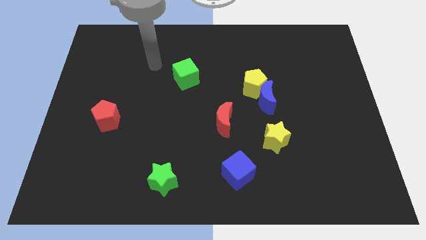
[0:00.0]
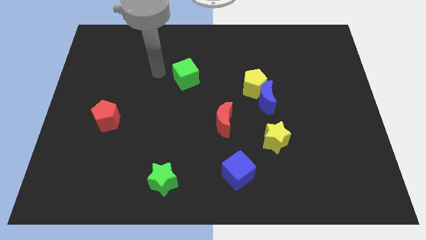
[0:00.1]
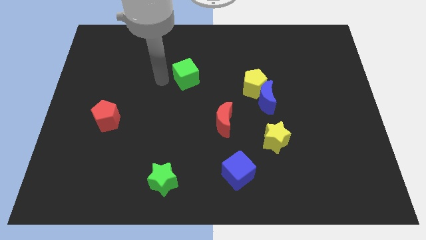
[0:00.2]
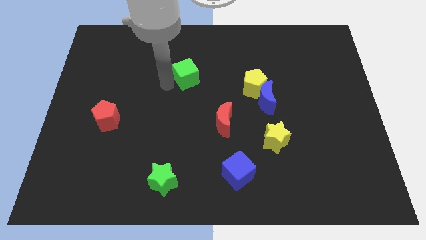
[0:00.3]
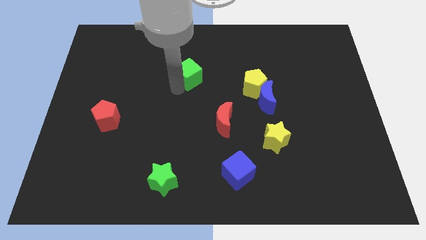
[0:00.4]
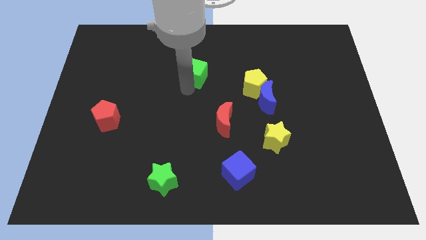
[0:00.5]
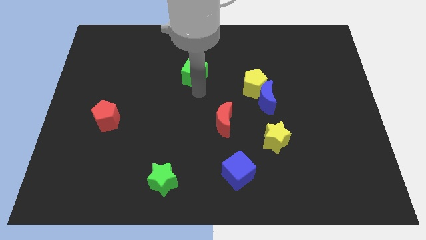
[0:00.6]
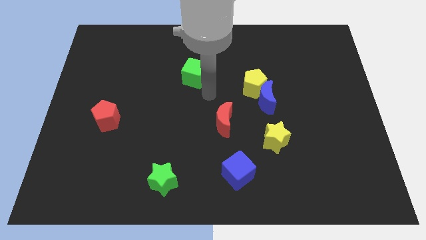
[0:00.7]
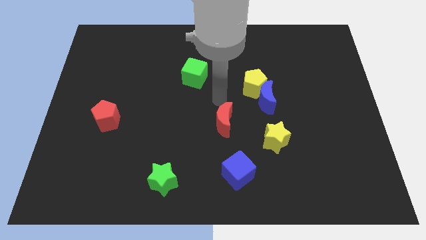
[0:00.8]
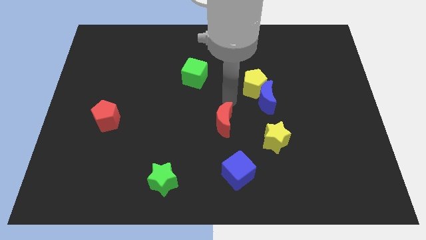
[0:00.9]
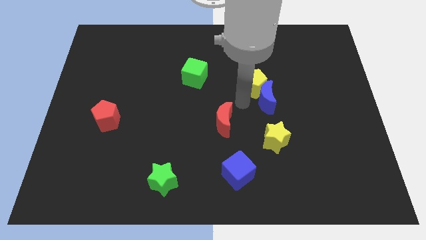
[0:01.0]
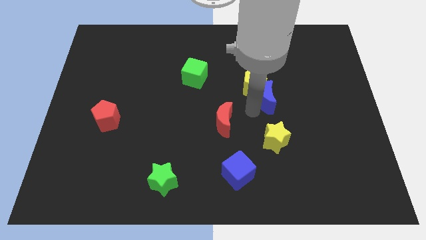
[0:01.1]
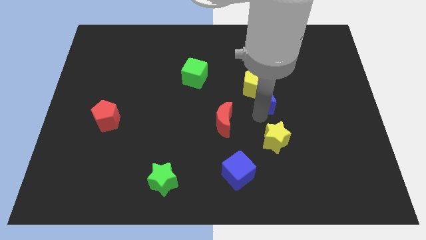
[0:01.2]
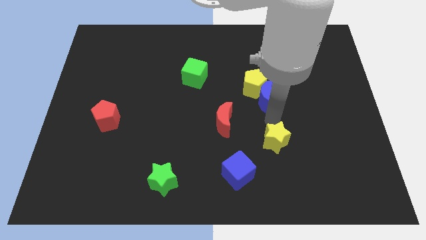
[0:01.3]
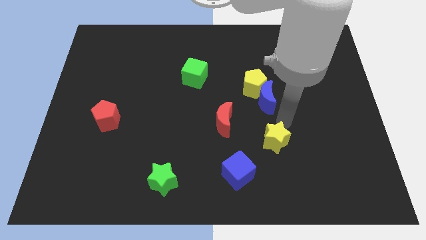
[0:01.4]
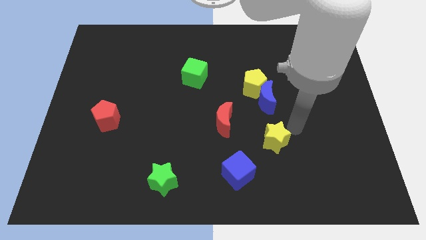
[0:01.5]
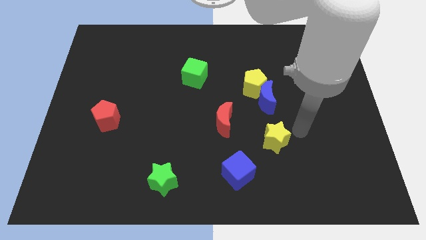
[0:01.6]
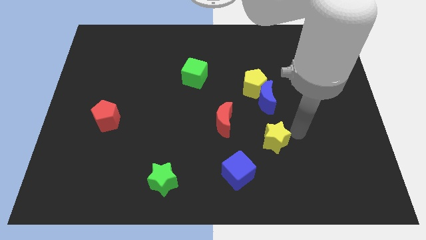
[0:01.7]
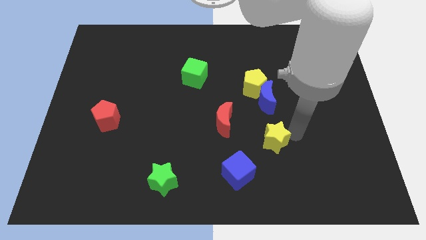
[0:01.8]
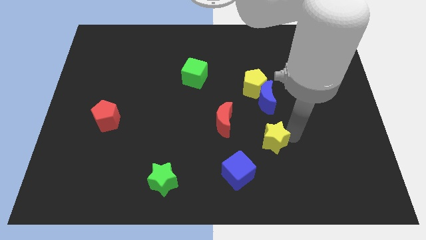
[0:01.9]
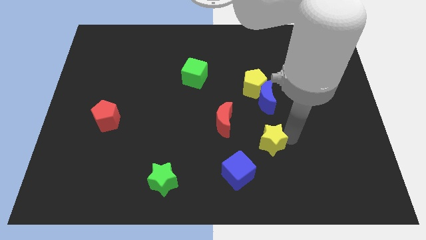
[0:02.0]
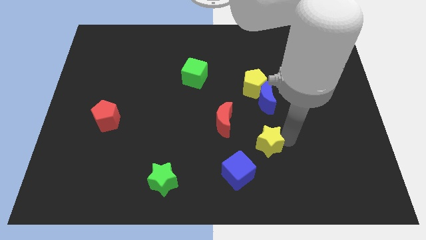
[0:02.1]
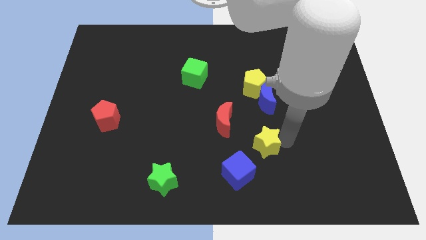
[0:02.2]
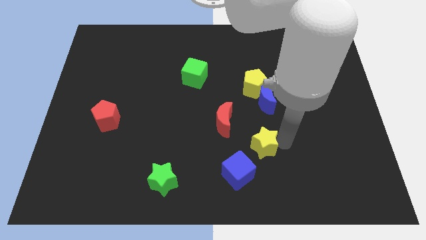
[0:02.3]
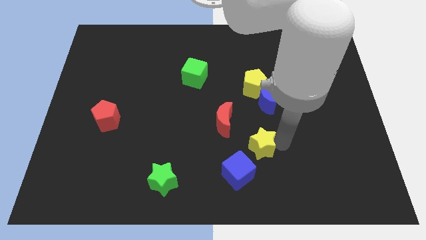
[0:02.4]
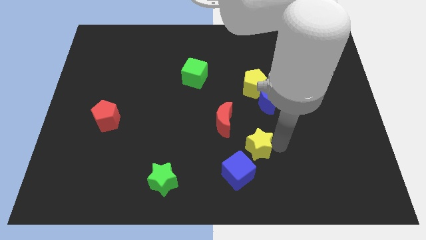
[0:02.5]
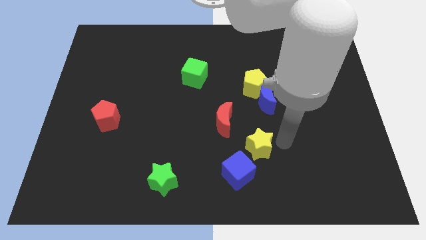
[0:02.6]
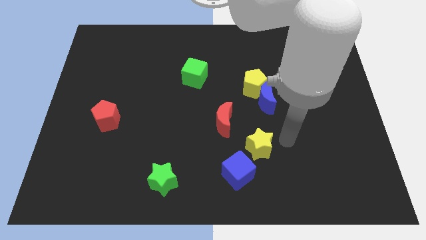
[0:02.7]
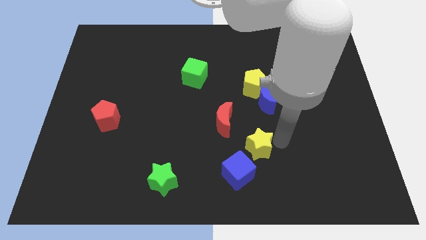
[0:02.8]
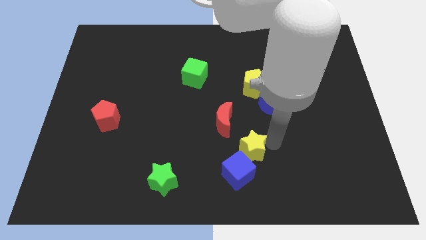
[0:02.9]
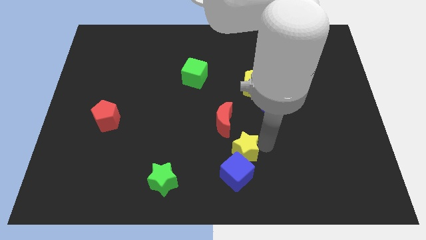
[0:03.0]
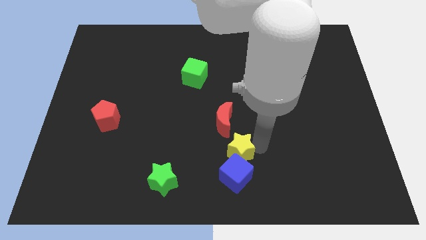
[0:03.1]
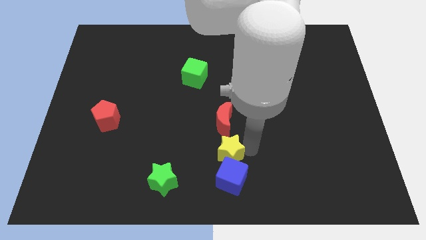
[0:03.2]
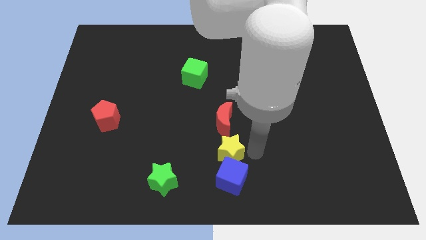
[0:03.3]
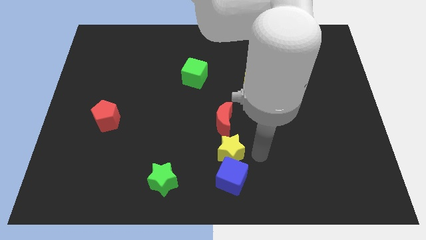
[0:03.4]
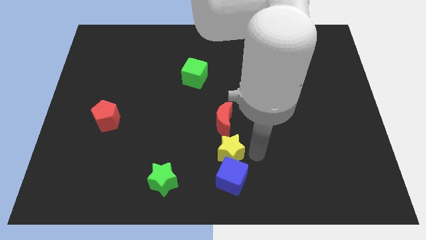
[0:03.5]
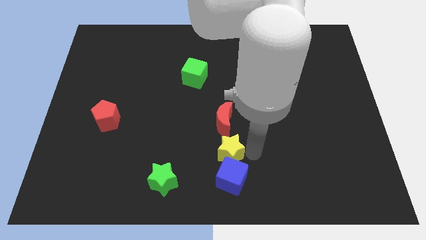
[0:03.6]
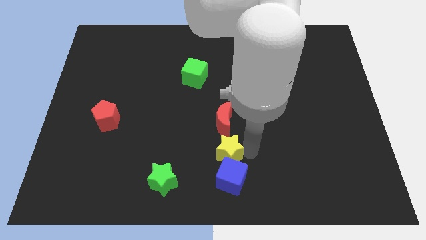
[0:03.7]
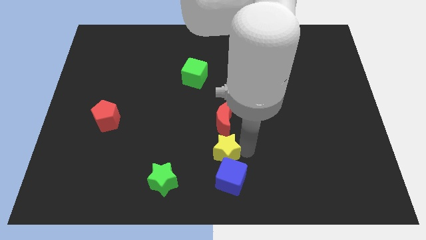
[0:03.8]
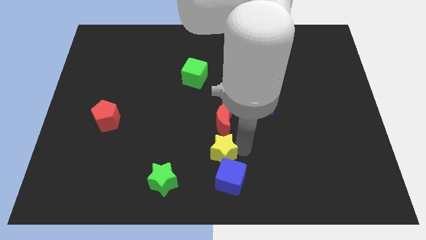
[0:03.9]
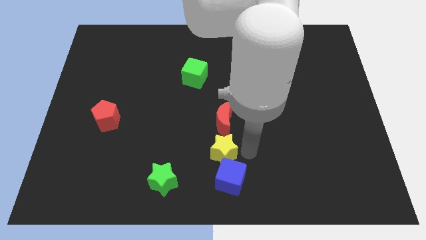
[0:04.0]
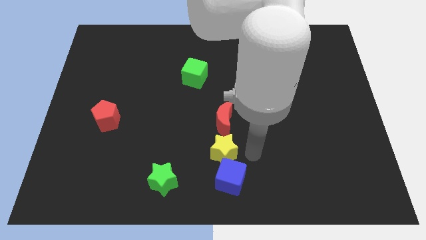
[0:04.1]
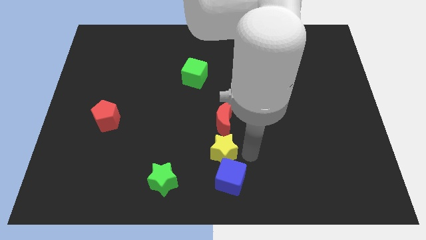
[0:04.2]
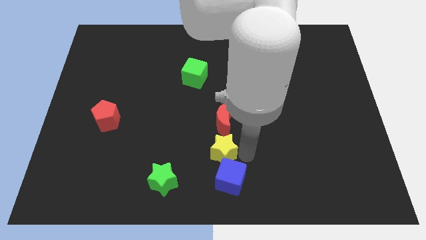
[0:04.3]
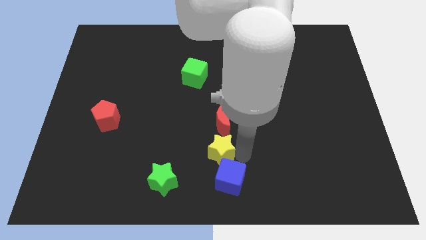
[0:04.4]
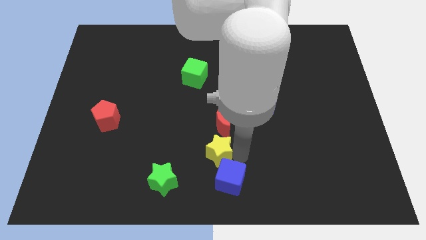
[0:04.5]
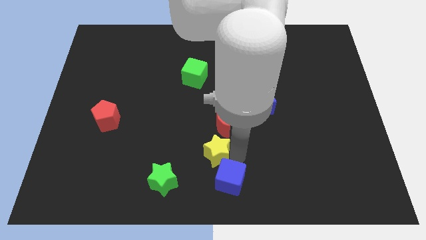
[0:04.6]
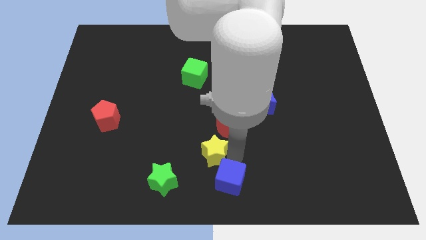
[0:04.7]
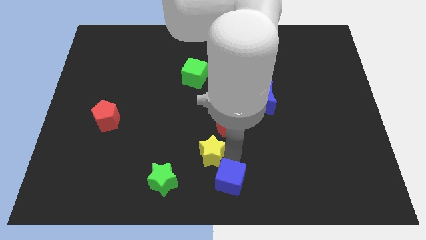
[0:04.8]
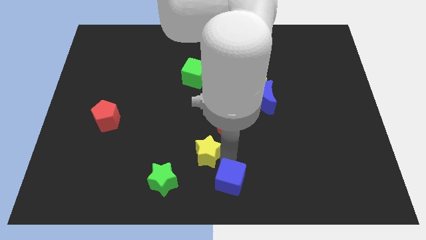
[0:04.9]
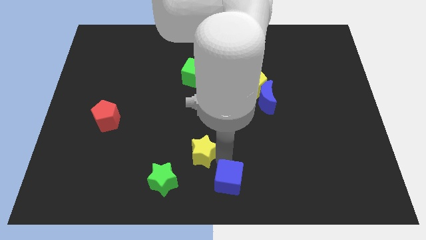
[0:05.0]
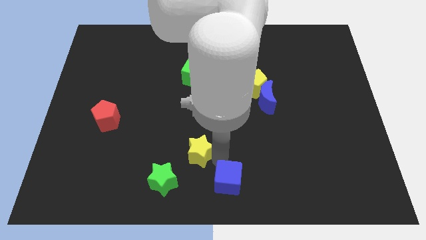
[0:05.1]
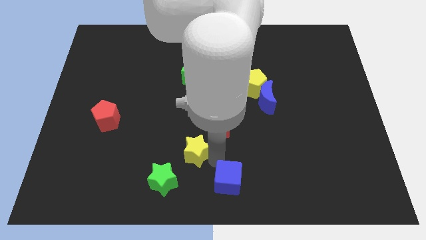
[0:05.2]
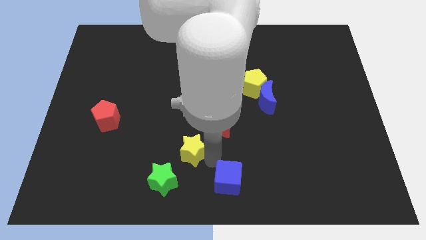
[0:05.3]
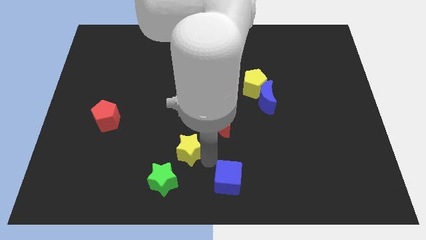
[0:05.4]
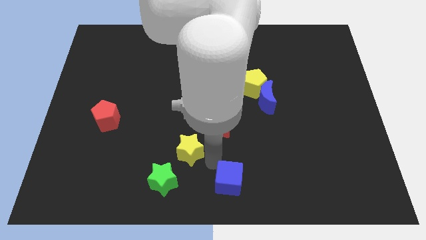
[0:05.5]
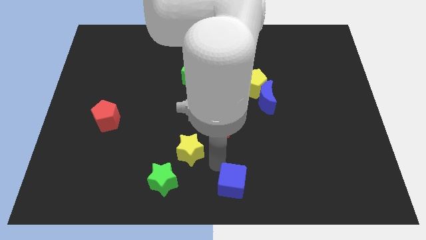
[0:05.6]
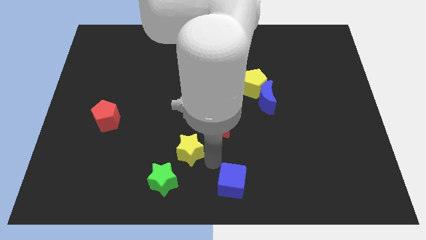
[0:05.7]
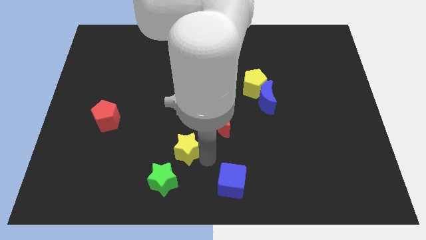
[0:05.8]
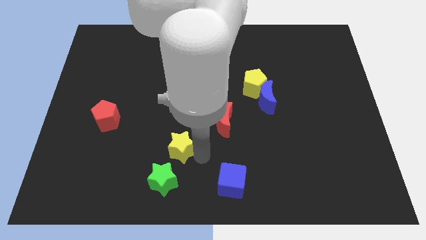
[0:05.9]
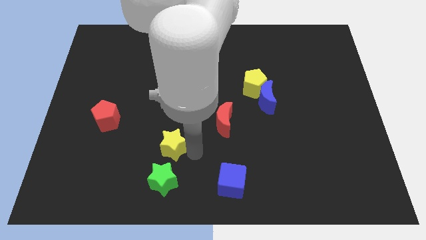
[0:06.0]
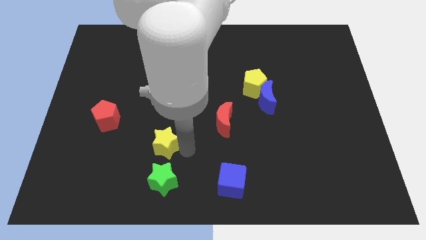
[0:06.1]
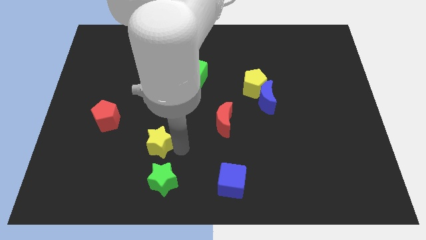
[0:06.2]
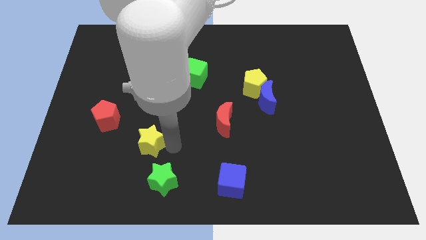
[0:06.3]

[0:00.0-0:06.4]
put the yellow star diagonally down and to the right of the red pentagon

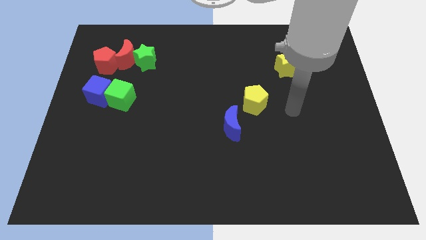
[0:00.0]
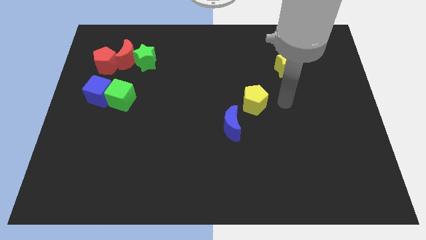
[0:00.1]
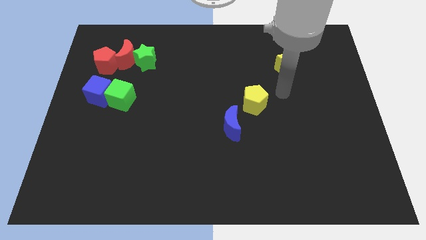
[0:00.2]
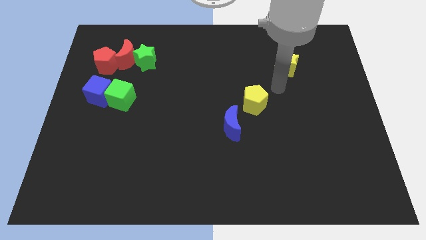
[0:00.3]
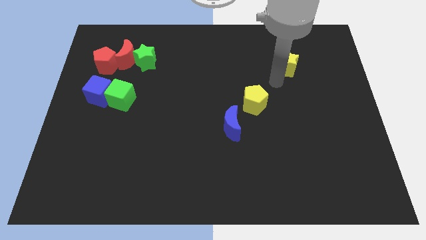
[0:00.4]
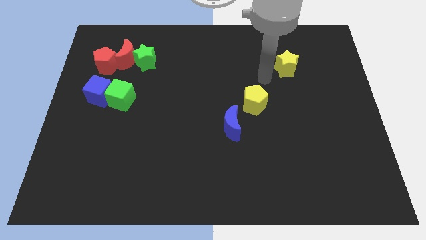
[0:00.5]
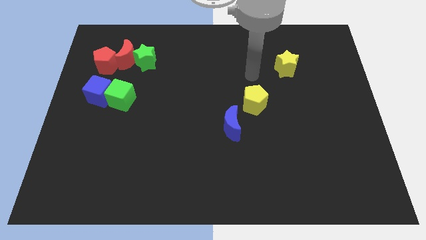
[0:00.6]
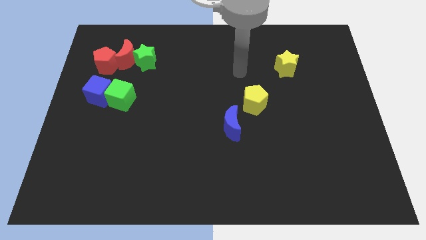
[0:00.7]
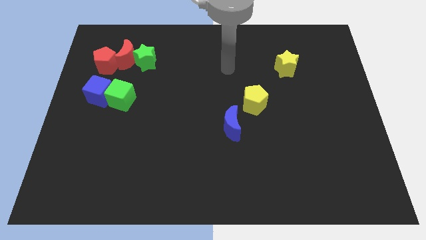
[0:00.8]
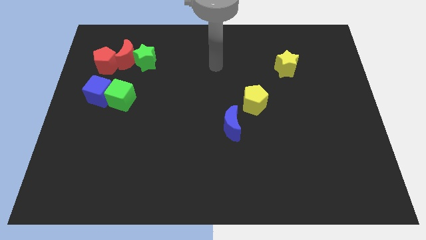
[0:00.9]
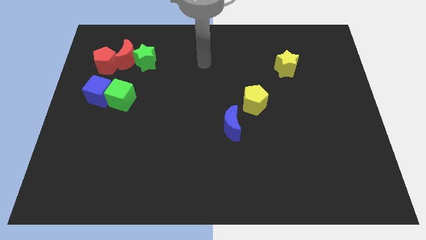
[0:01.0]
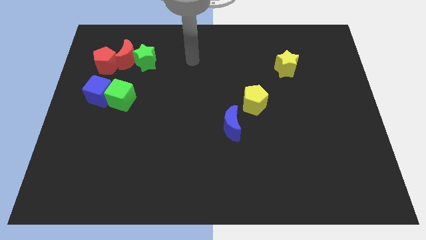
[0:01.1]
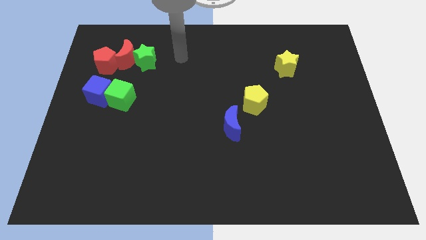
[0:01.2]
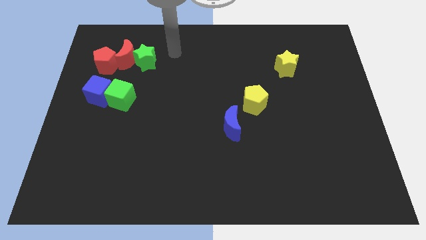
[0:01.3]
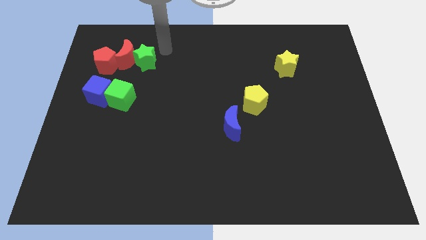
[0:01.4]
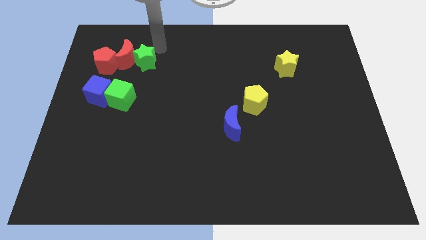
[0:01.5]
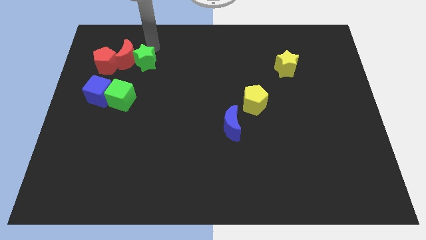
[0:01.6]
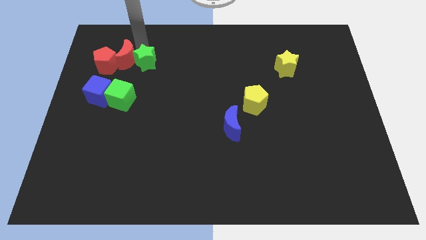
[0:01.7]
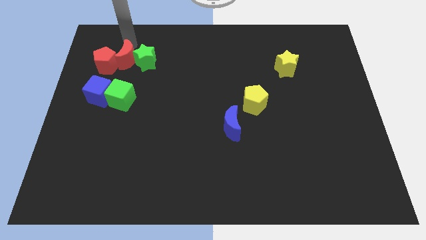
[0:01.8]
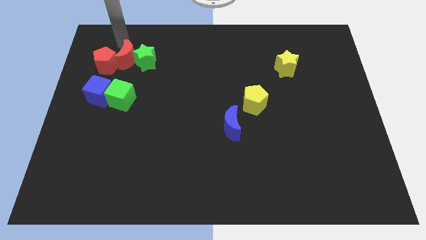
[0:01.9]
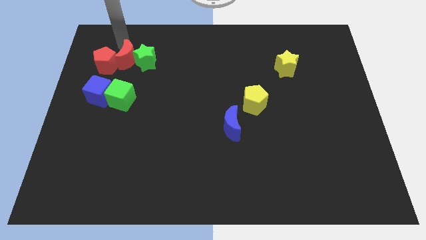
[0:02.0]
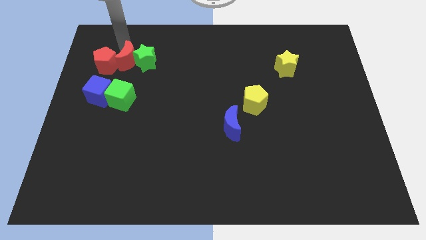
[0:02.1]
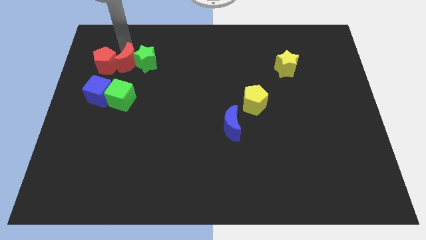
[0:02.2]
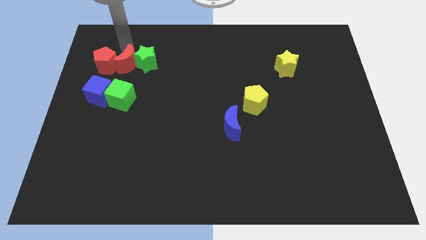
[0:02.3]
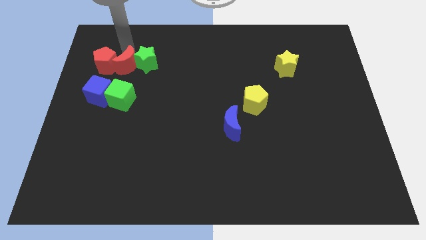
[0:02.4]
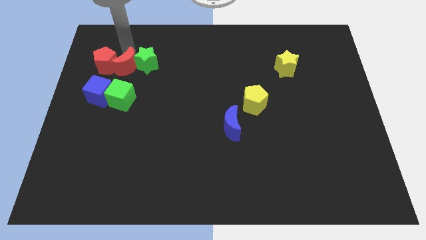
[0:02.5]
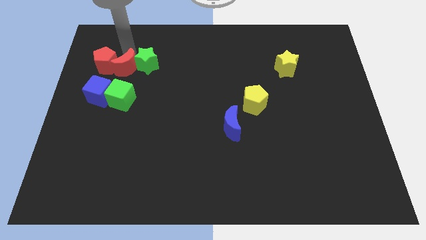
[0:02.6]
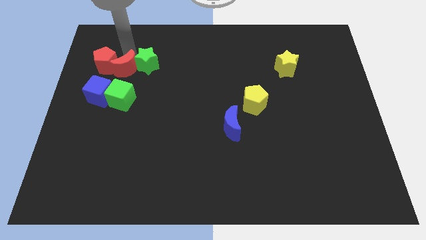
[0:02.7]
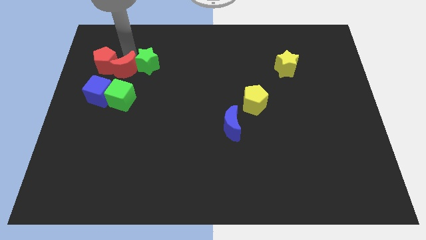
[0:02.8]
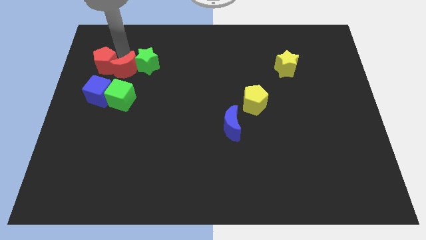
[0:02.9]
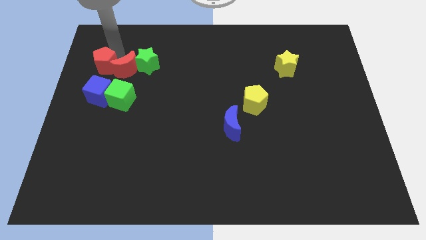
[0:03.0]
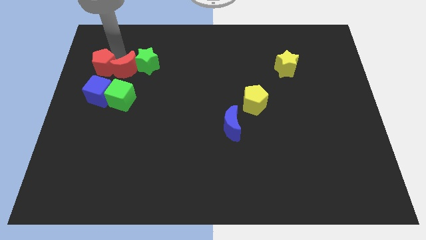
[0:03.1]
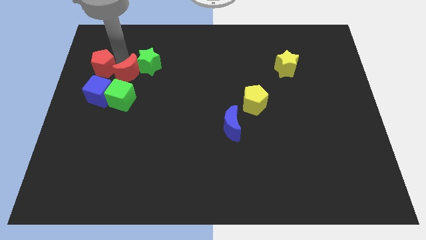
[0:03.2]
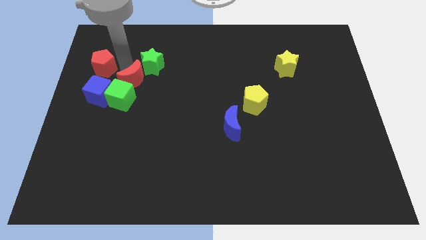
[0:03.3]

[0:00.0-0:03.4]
put the red moon to the bottom of the green star
